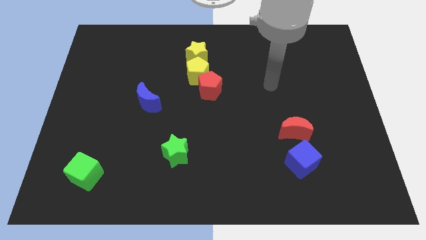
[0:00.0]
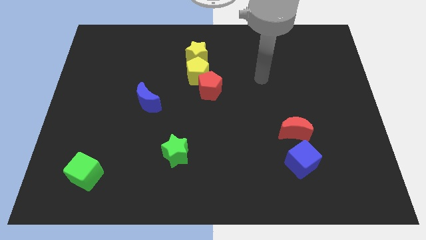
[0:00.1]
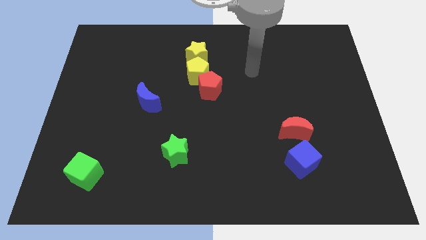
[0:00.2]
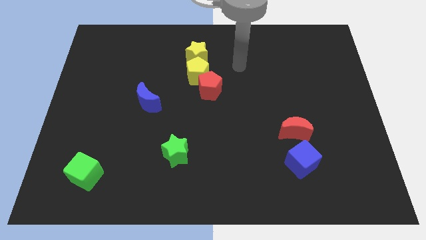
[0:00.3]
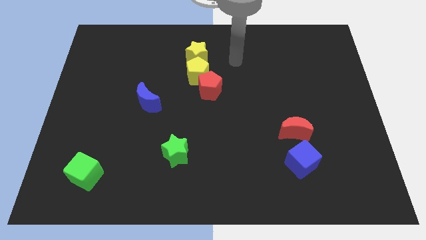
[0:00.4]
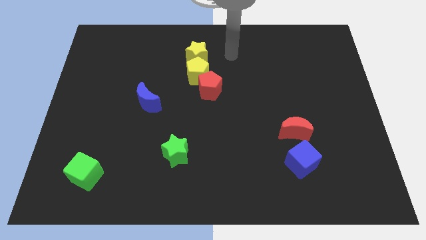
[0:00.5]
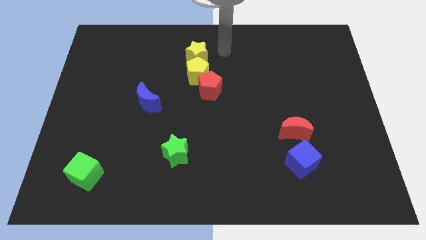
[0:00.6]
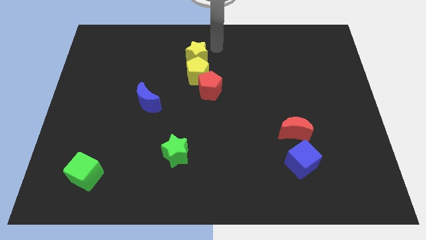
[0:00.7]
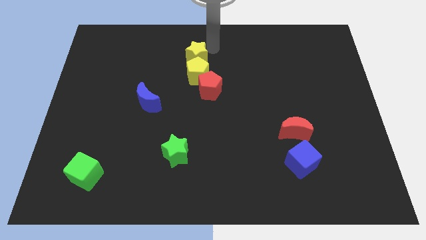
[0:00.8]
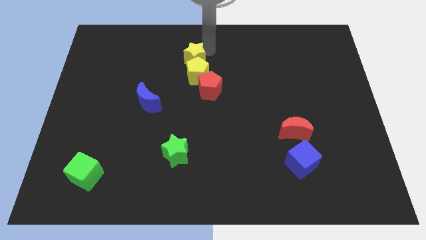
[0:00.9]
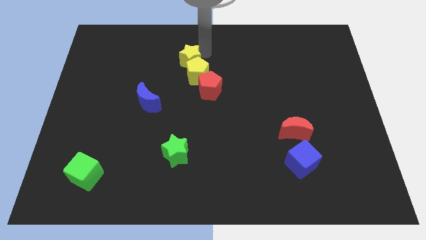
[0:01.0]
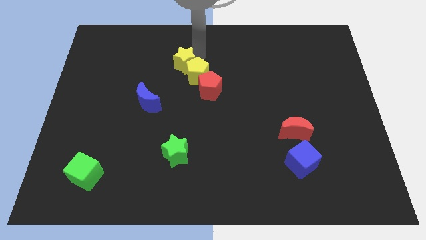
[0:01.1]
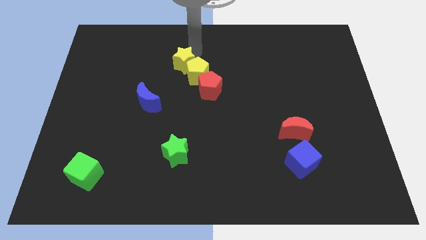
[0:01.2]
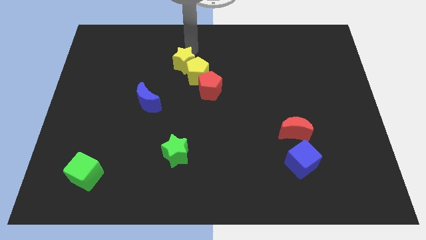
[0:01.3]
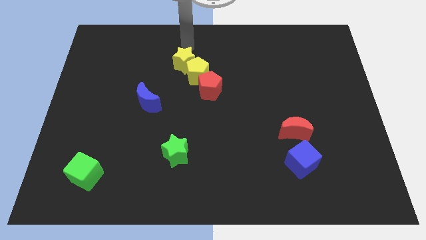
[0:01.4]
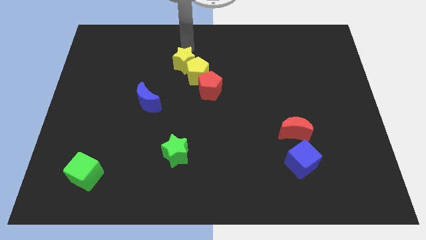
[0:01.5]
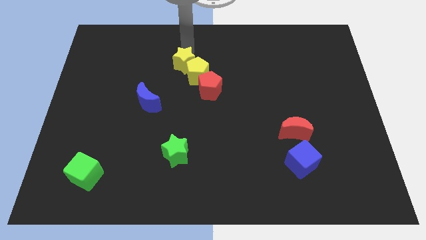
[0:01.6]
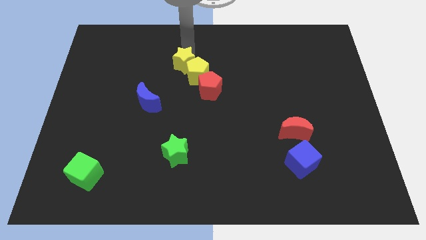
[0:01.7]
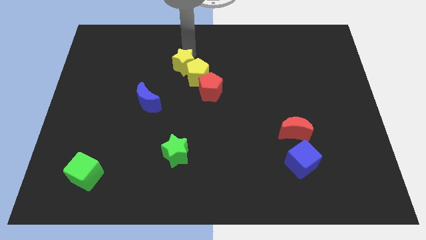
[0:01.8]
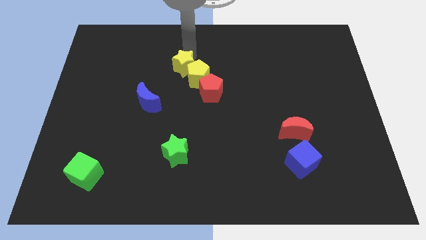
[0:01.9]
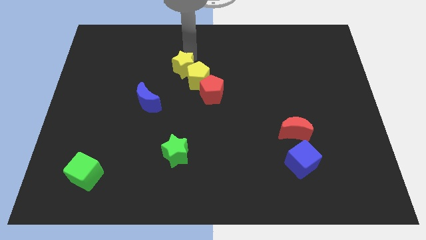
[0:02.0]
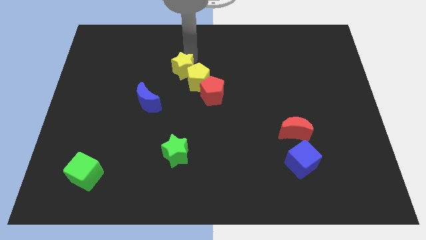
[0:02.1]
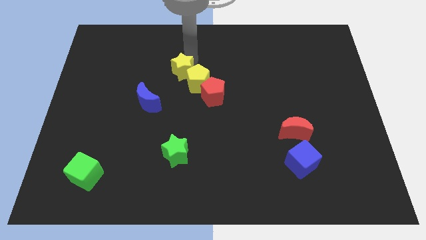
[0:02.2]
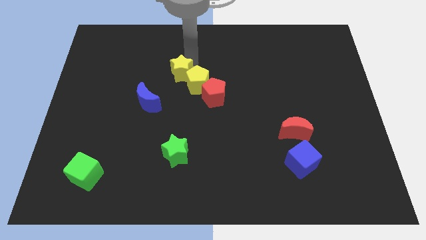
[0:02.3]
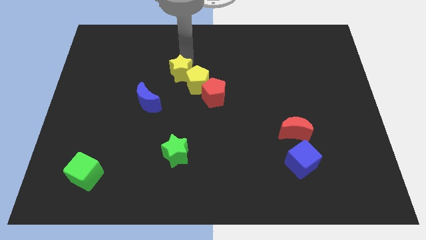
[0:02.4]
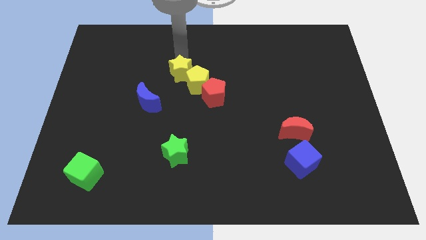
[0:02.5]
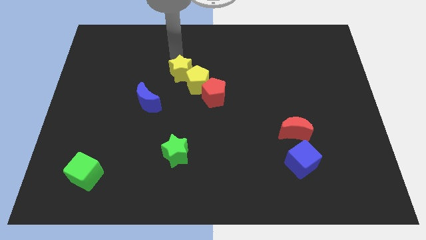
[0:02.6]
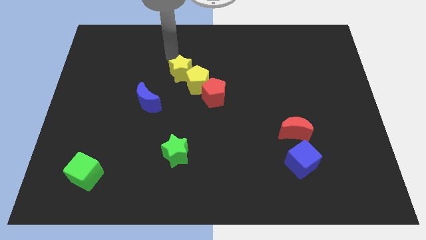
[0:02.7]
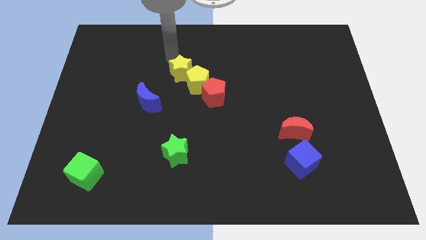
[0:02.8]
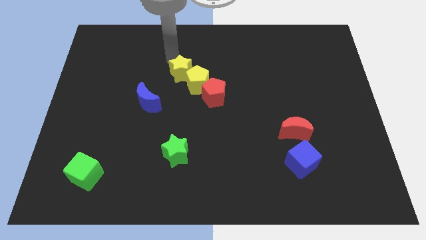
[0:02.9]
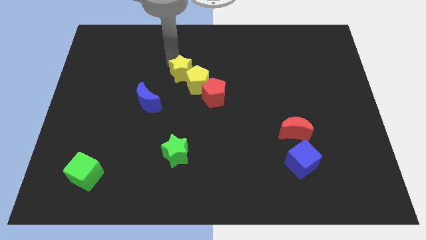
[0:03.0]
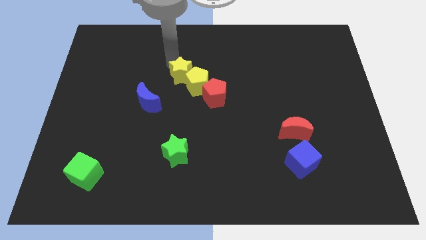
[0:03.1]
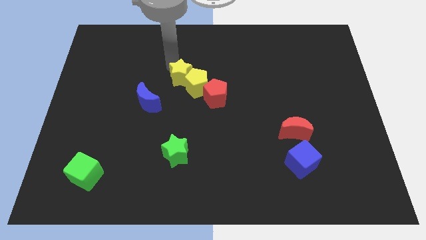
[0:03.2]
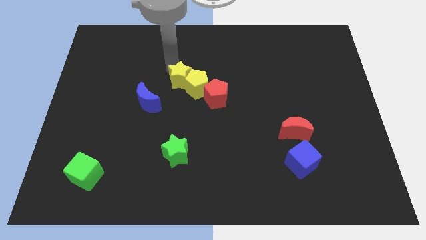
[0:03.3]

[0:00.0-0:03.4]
slide the yellow star a bit downwards

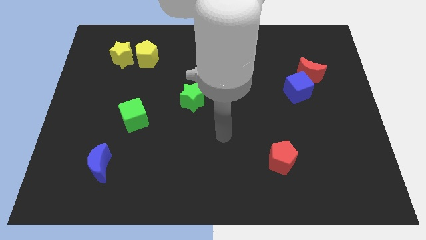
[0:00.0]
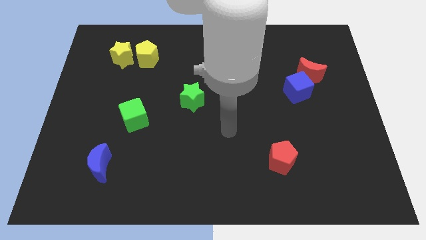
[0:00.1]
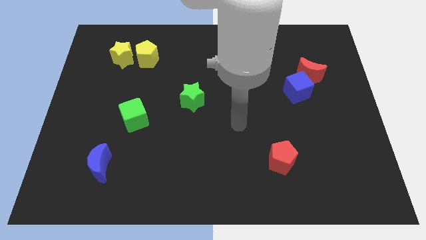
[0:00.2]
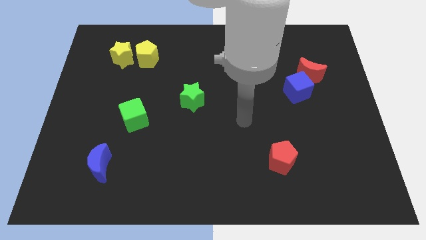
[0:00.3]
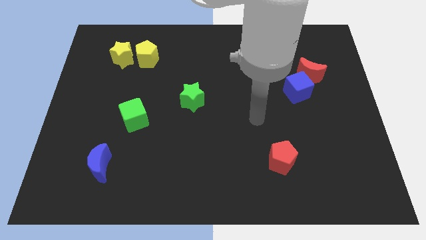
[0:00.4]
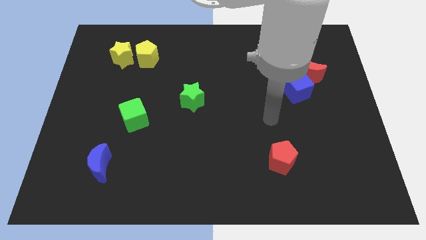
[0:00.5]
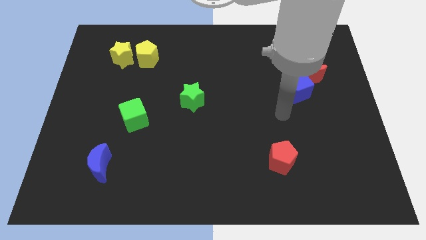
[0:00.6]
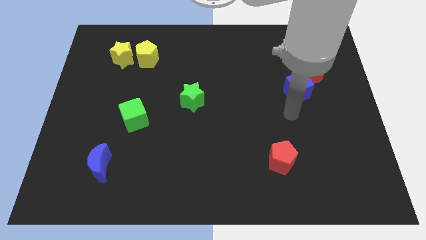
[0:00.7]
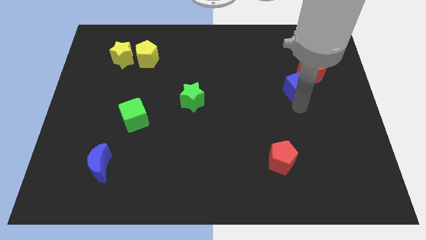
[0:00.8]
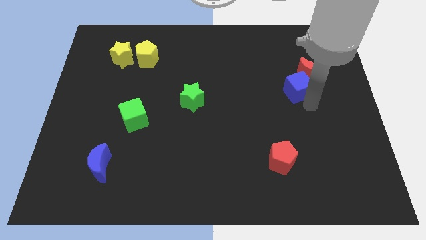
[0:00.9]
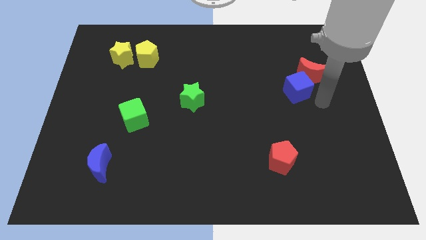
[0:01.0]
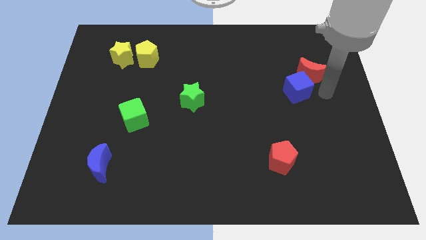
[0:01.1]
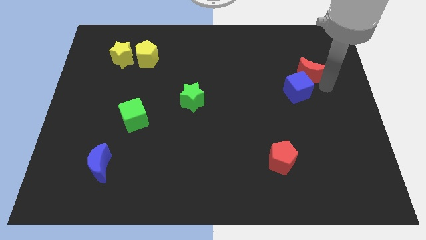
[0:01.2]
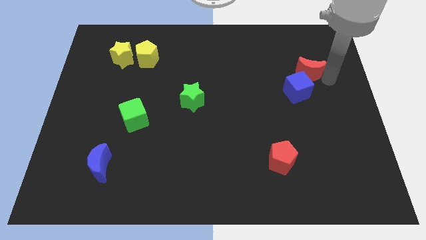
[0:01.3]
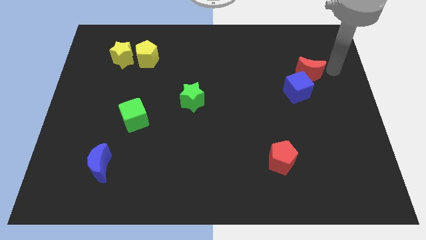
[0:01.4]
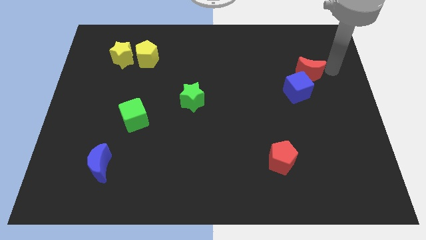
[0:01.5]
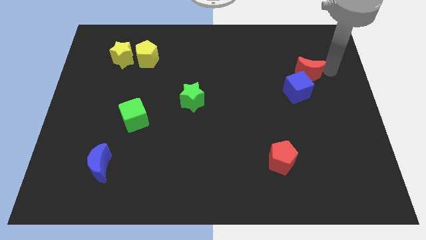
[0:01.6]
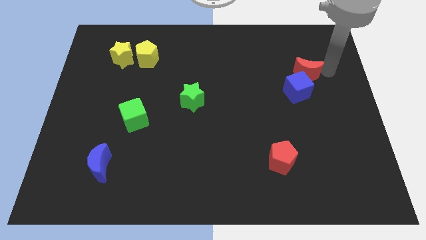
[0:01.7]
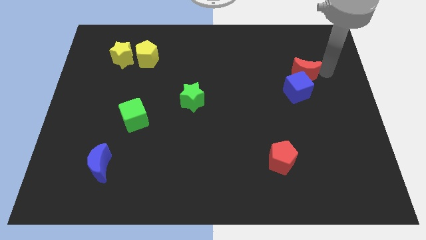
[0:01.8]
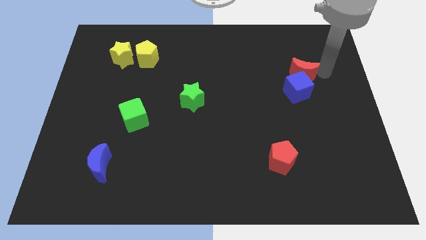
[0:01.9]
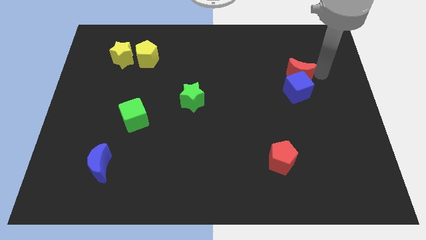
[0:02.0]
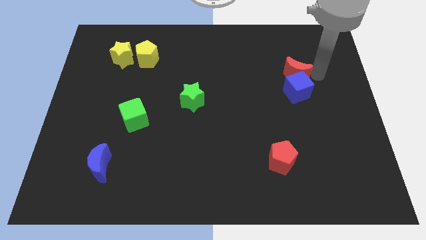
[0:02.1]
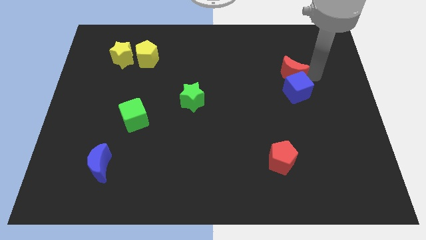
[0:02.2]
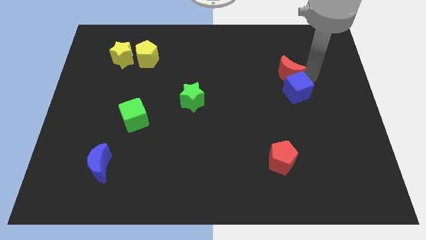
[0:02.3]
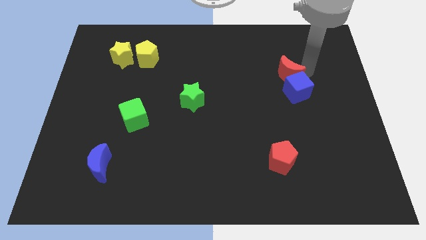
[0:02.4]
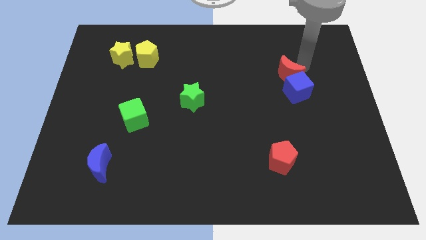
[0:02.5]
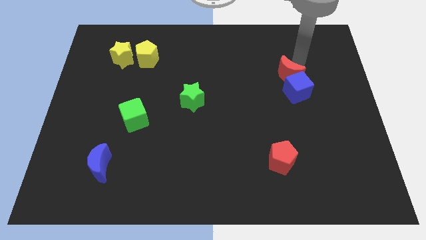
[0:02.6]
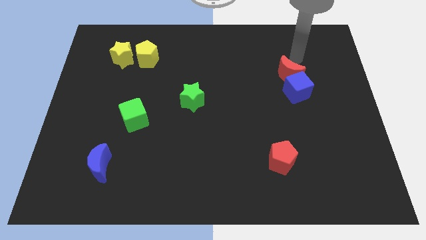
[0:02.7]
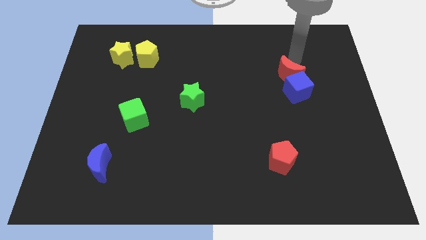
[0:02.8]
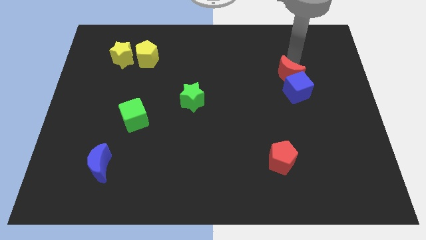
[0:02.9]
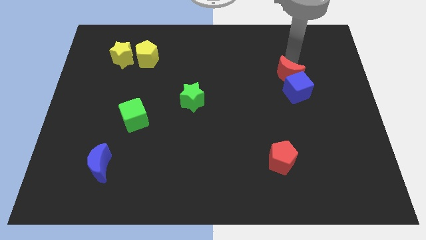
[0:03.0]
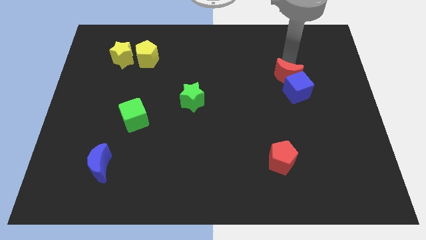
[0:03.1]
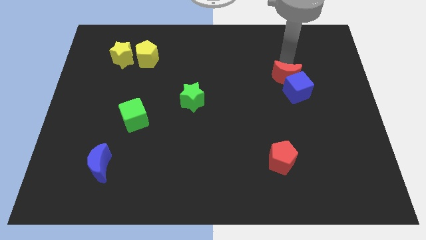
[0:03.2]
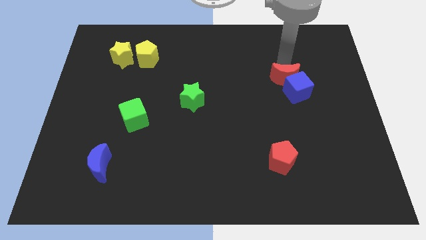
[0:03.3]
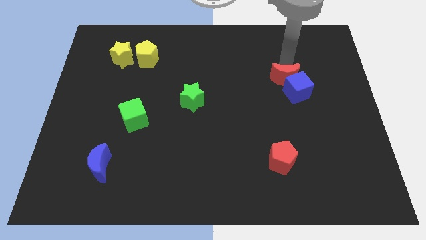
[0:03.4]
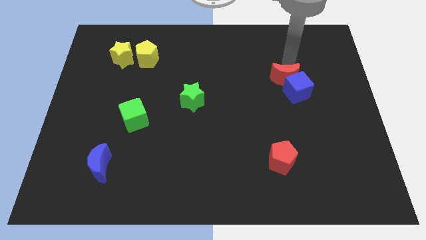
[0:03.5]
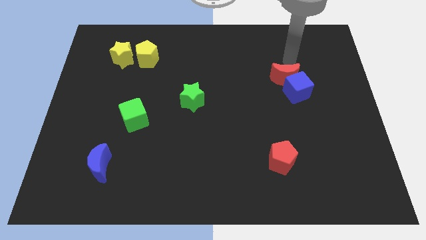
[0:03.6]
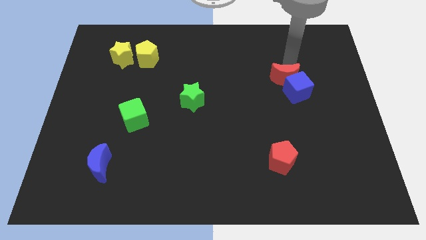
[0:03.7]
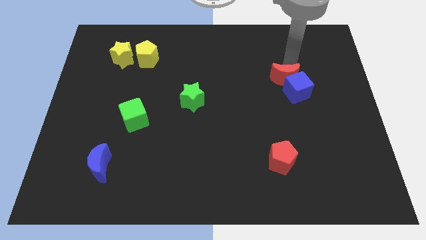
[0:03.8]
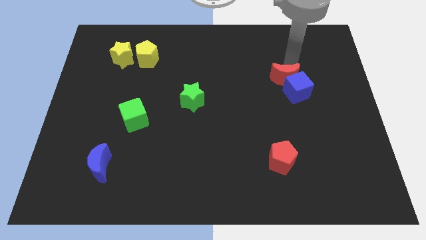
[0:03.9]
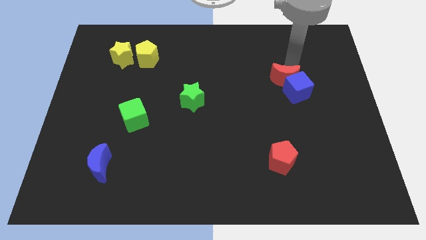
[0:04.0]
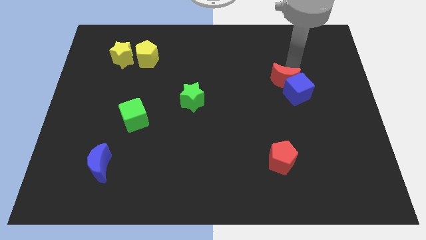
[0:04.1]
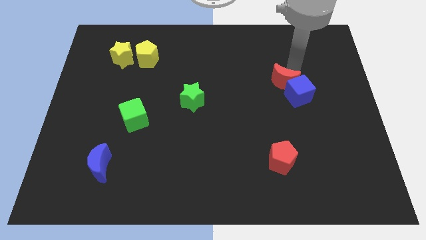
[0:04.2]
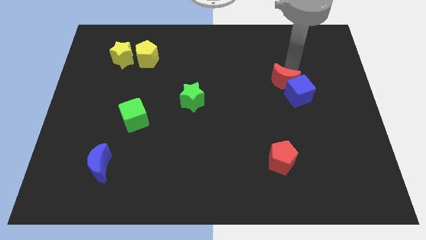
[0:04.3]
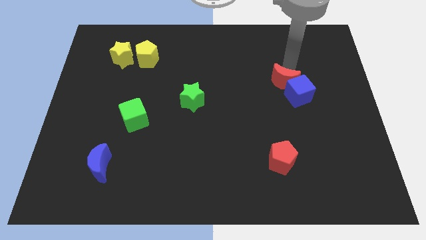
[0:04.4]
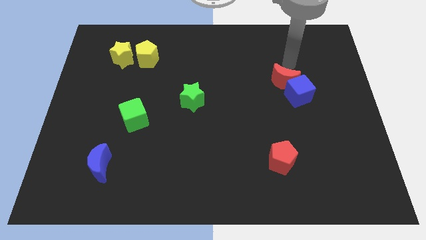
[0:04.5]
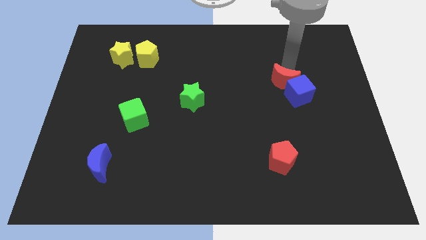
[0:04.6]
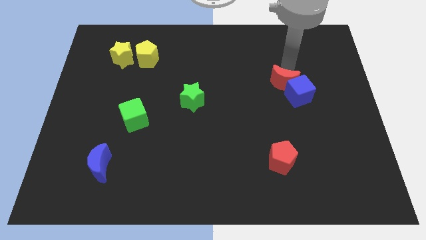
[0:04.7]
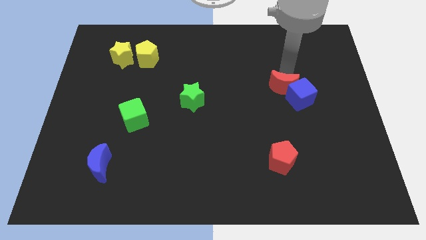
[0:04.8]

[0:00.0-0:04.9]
slide the red moon slightly downwards and left
